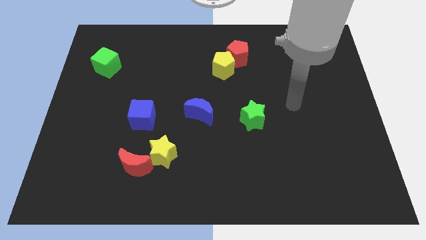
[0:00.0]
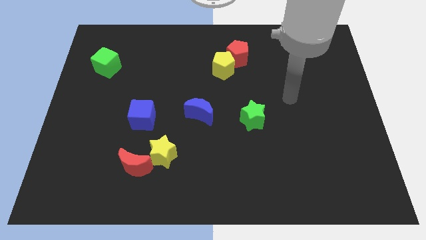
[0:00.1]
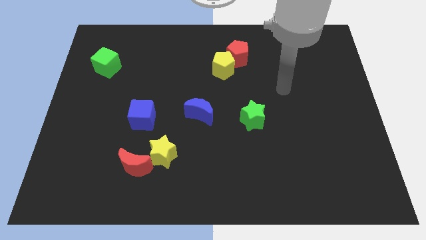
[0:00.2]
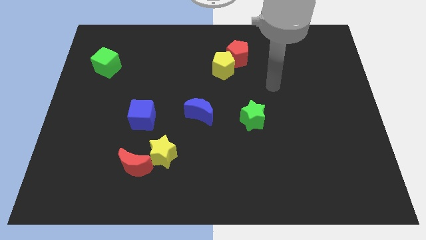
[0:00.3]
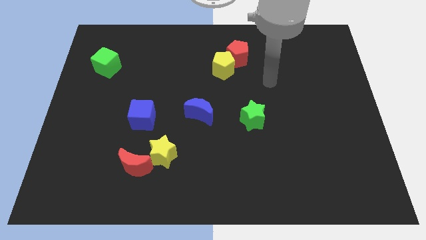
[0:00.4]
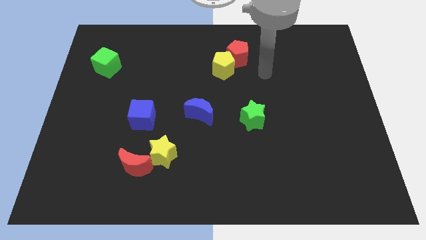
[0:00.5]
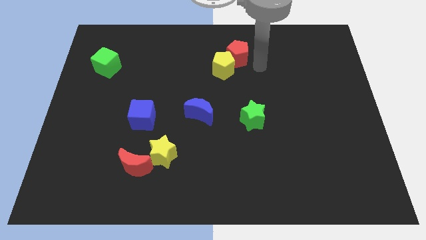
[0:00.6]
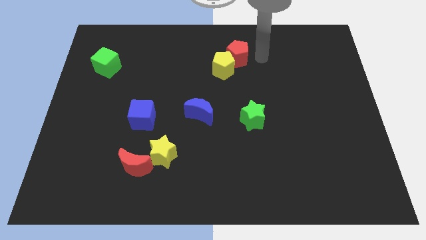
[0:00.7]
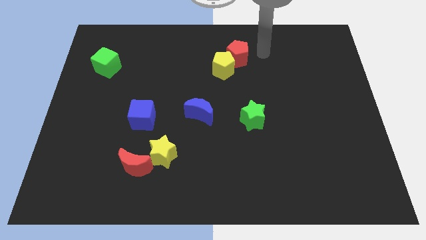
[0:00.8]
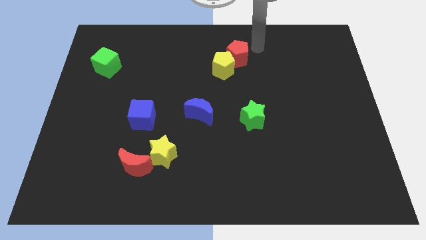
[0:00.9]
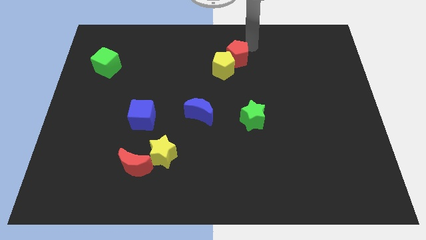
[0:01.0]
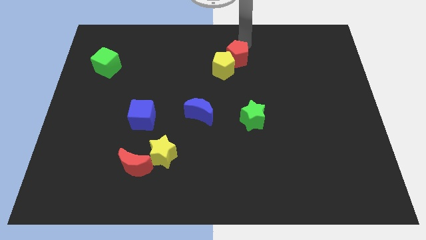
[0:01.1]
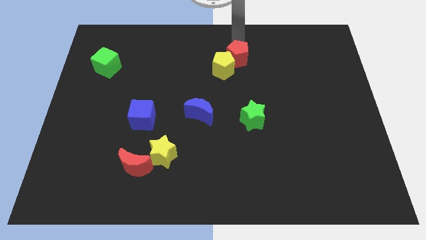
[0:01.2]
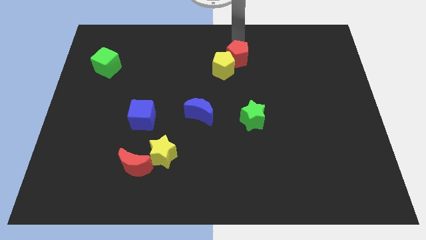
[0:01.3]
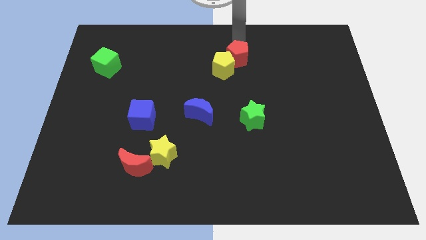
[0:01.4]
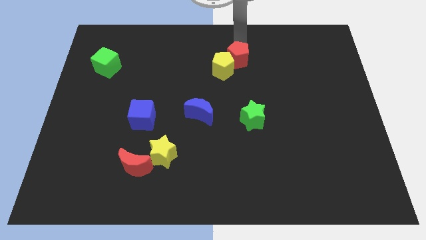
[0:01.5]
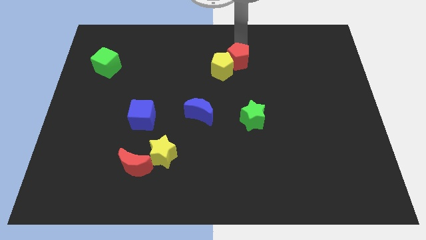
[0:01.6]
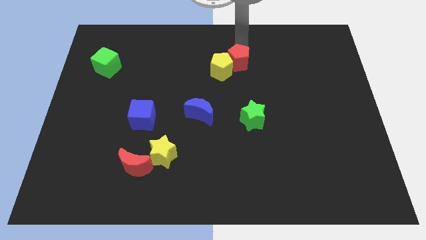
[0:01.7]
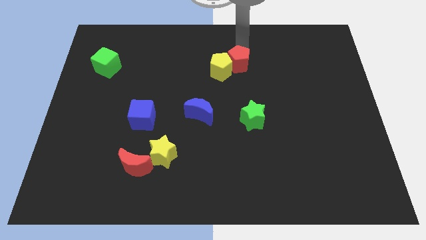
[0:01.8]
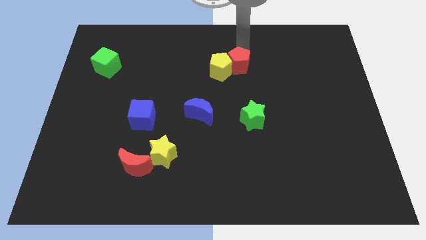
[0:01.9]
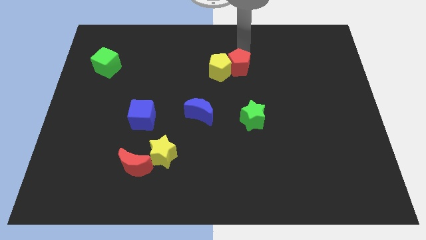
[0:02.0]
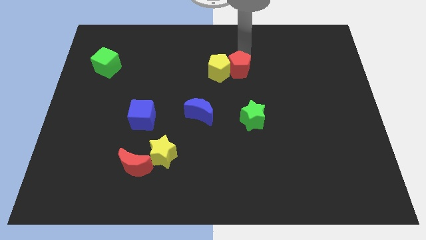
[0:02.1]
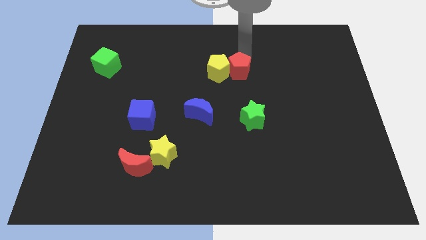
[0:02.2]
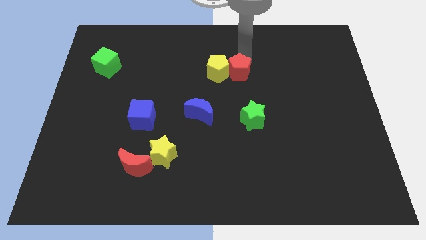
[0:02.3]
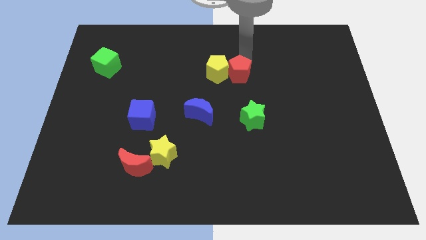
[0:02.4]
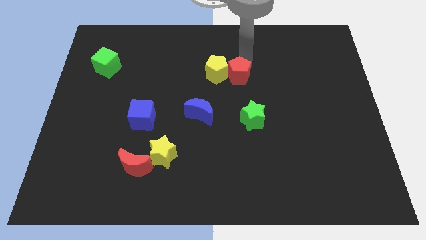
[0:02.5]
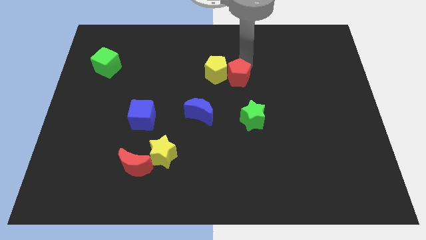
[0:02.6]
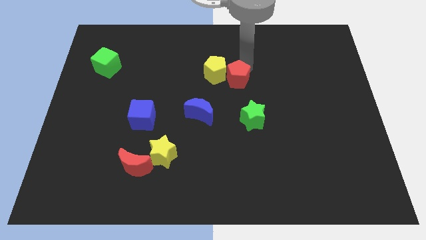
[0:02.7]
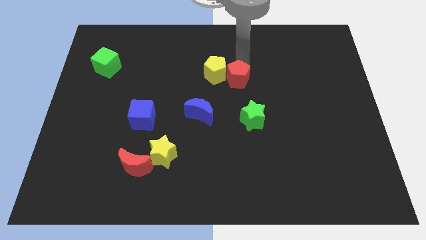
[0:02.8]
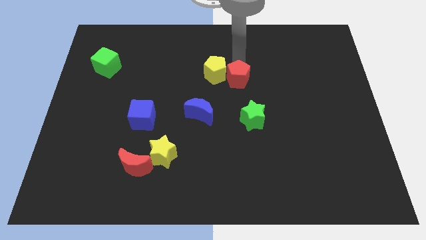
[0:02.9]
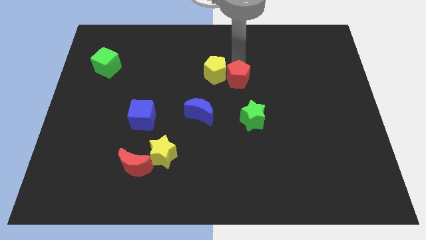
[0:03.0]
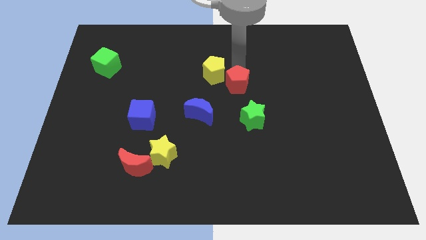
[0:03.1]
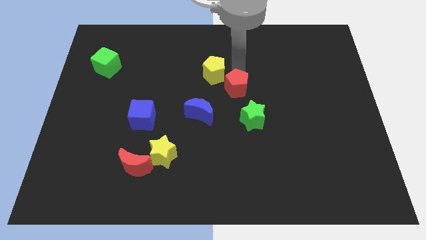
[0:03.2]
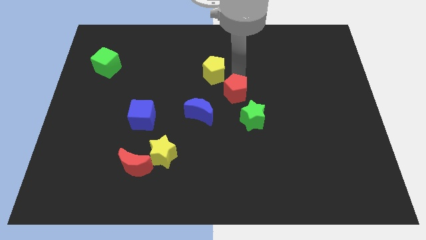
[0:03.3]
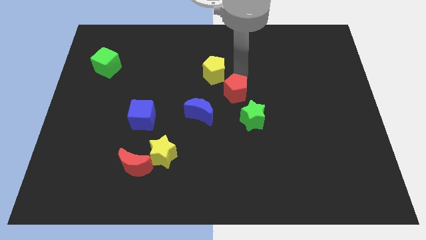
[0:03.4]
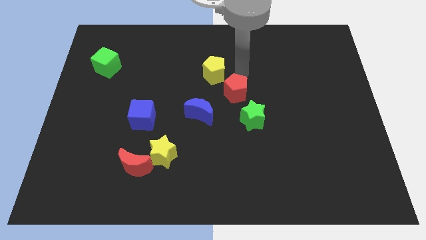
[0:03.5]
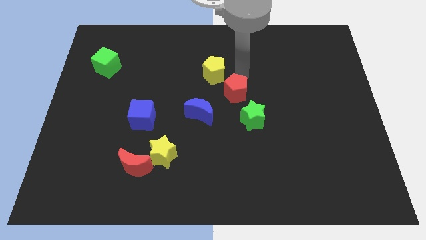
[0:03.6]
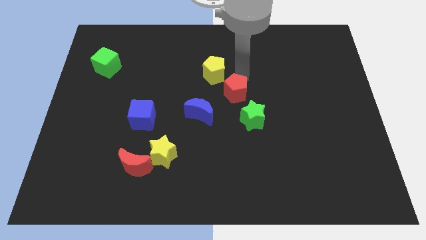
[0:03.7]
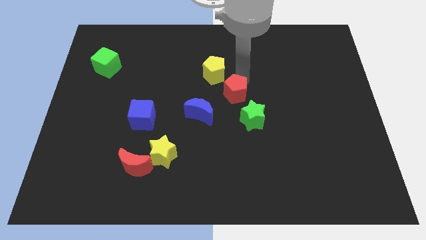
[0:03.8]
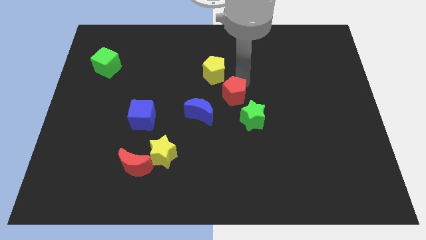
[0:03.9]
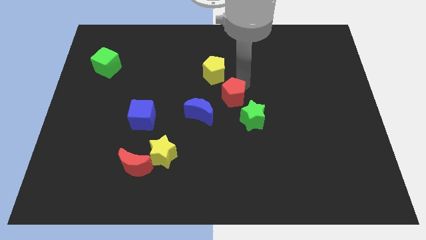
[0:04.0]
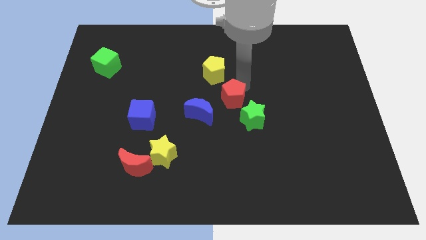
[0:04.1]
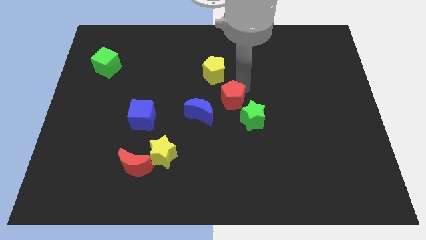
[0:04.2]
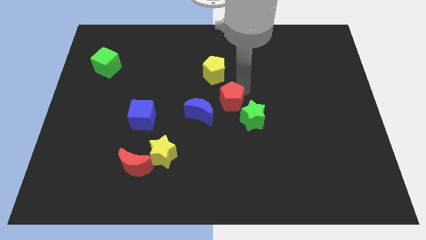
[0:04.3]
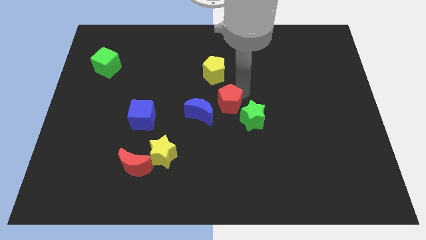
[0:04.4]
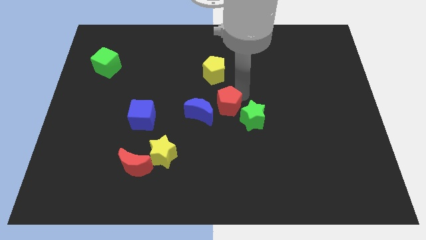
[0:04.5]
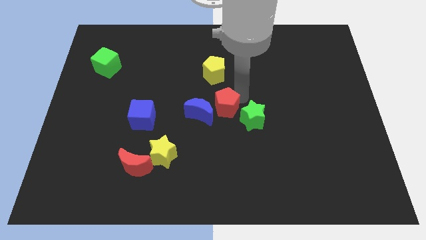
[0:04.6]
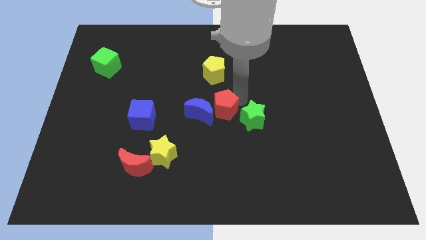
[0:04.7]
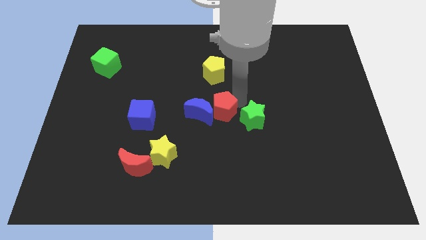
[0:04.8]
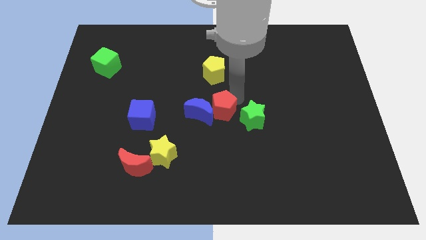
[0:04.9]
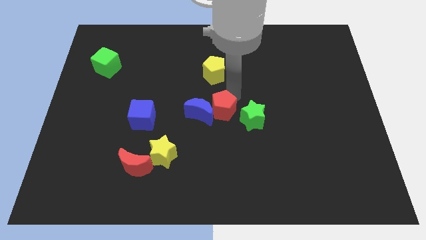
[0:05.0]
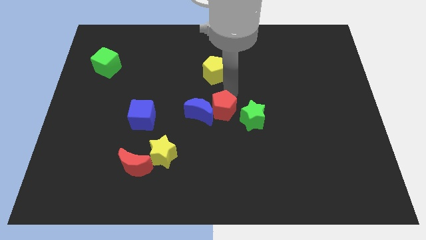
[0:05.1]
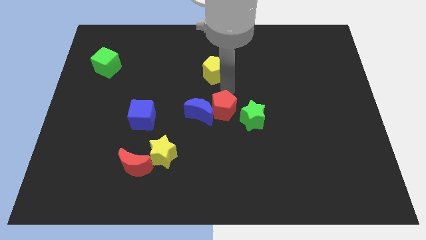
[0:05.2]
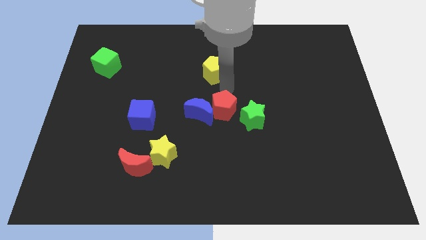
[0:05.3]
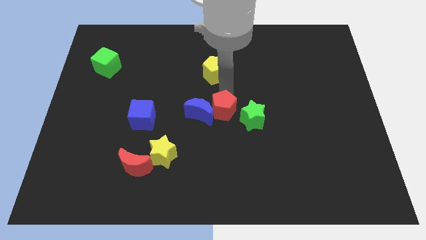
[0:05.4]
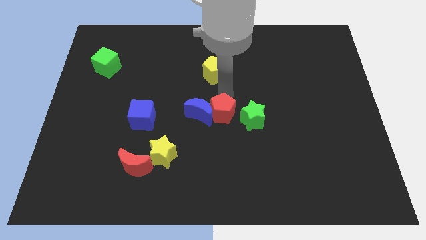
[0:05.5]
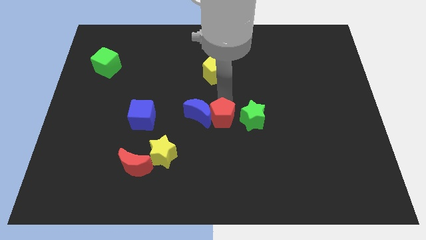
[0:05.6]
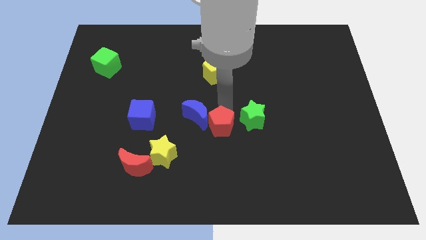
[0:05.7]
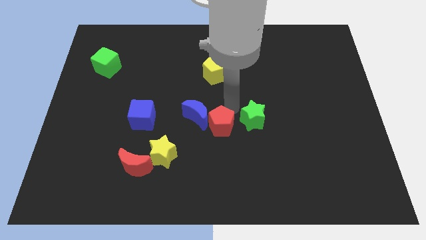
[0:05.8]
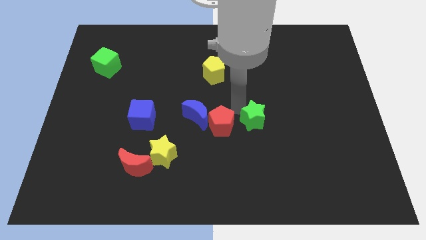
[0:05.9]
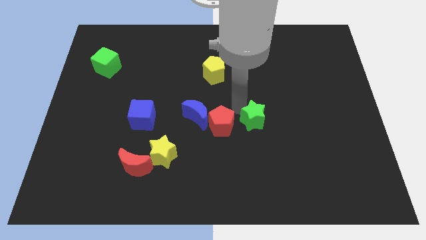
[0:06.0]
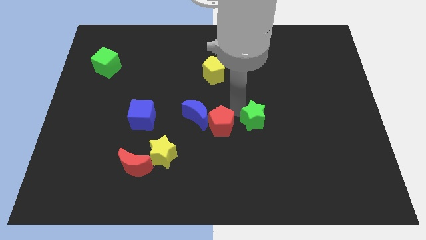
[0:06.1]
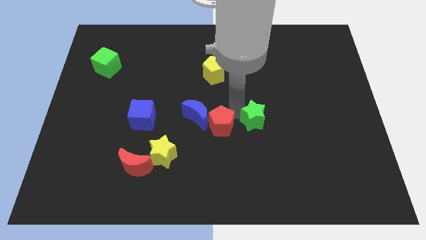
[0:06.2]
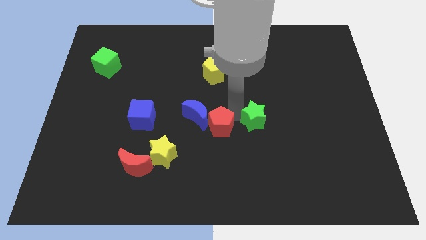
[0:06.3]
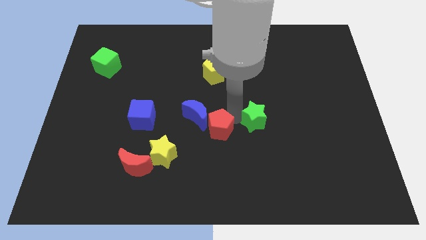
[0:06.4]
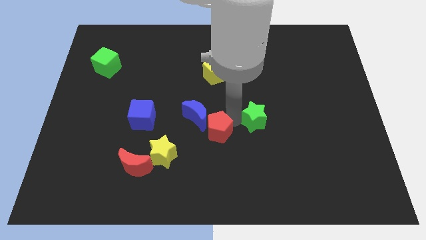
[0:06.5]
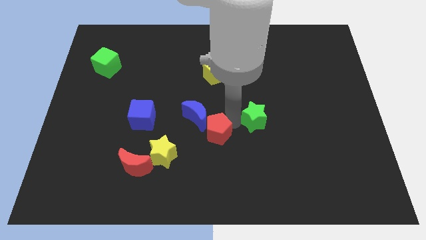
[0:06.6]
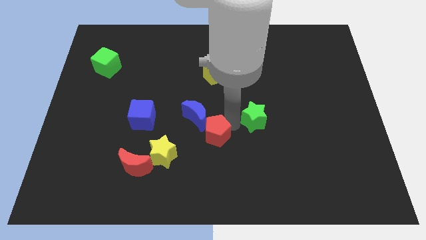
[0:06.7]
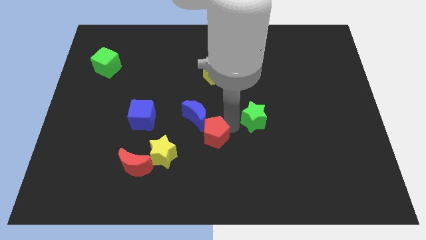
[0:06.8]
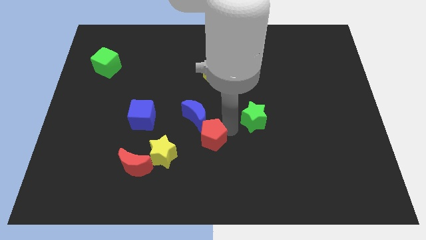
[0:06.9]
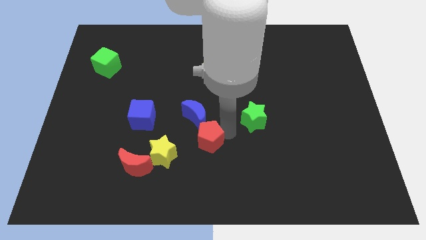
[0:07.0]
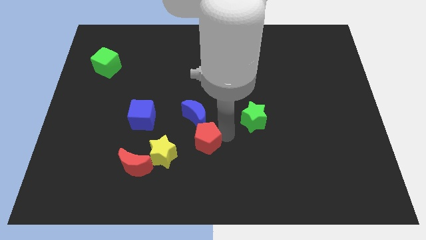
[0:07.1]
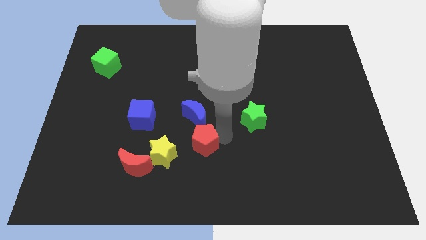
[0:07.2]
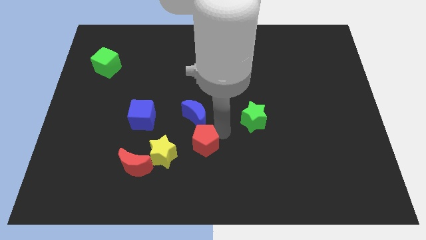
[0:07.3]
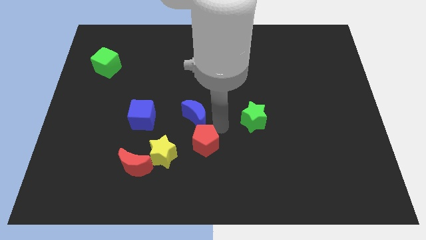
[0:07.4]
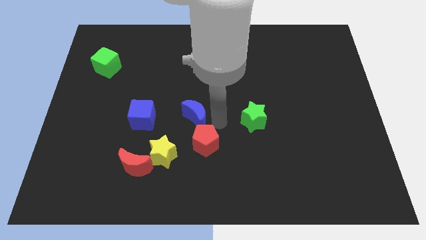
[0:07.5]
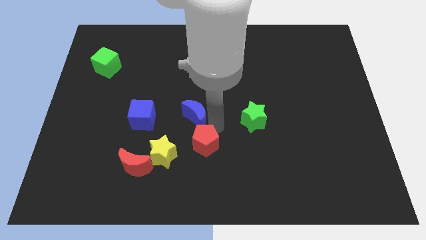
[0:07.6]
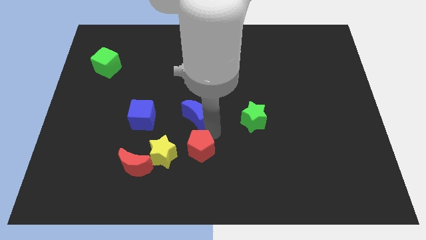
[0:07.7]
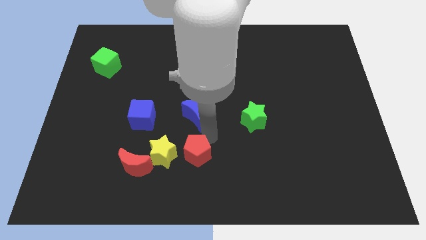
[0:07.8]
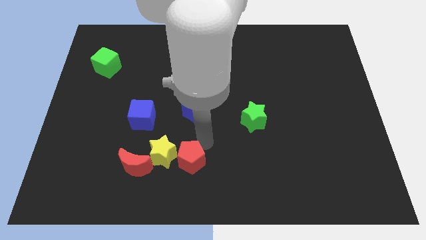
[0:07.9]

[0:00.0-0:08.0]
push the red pentagon to the bottom right side of the yellow star
